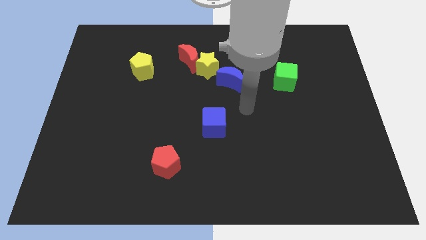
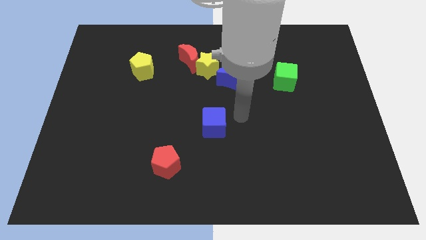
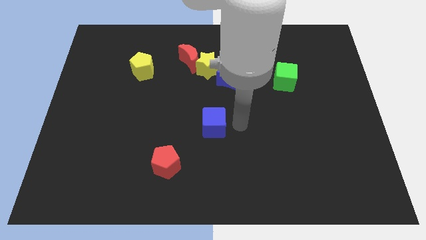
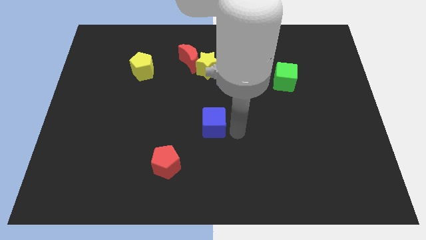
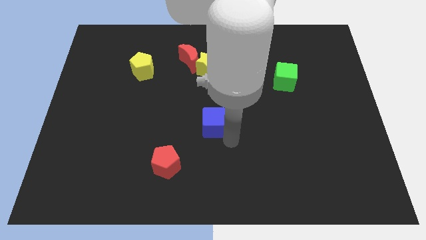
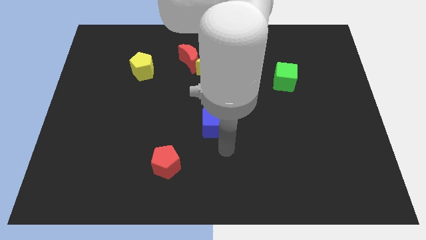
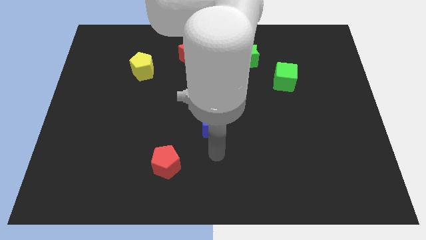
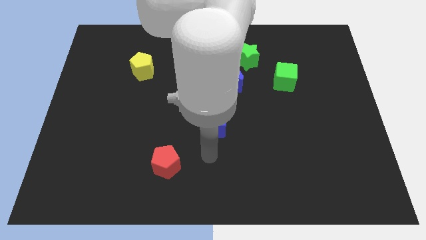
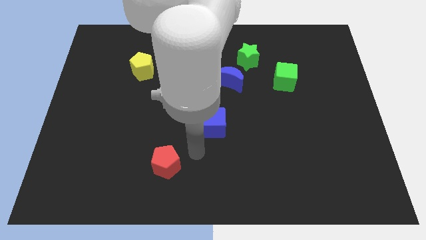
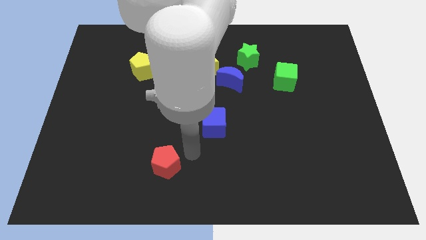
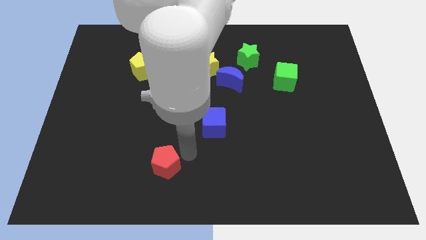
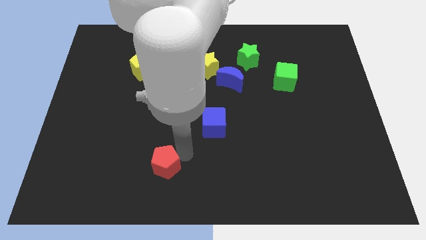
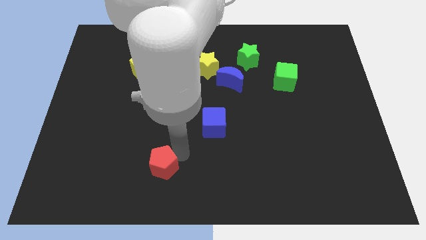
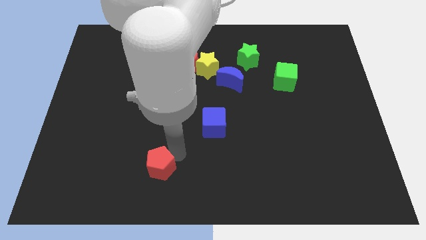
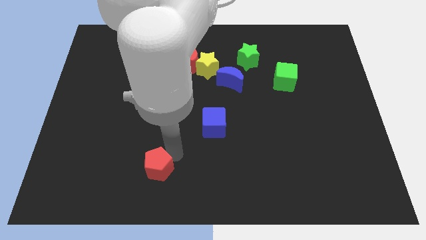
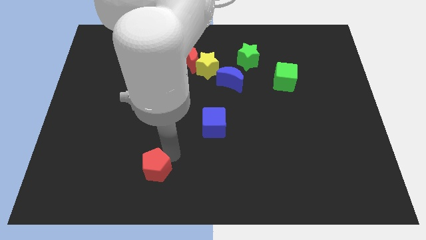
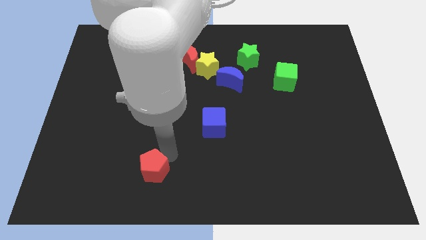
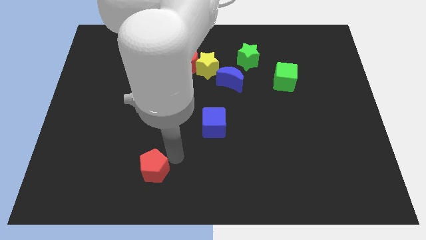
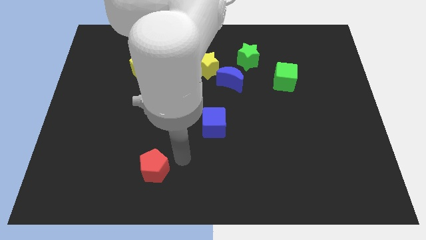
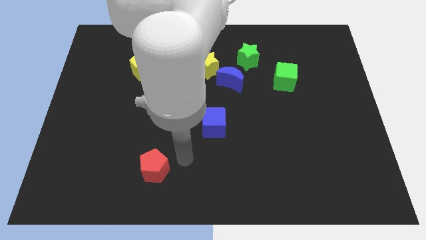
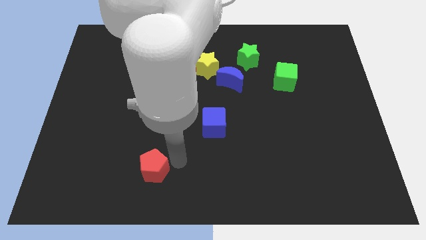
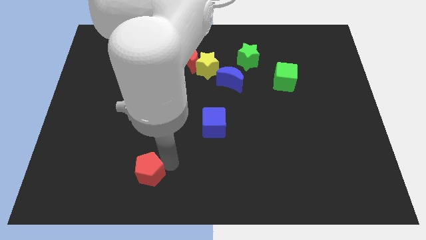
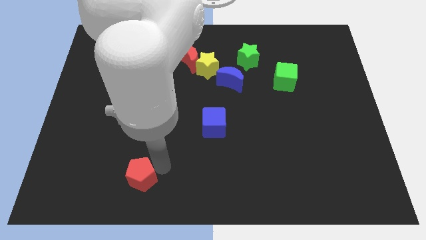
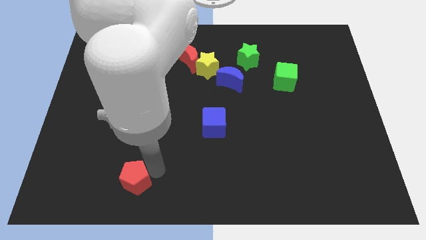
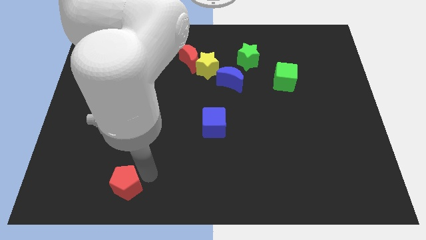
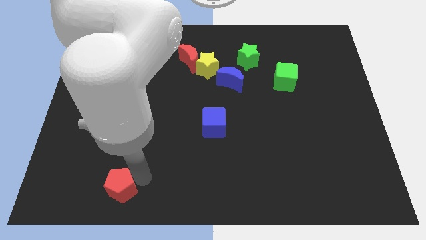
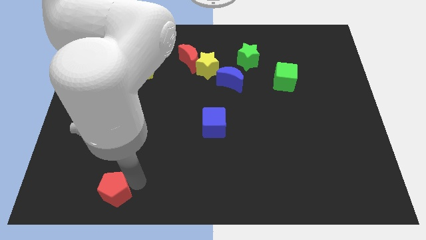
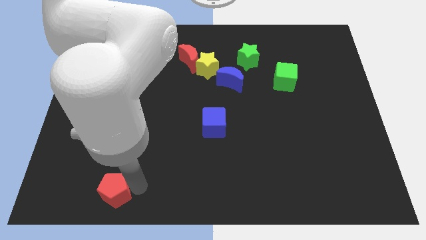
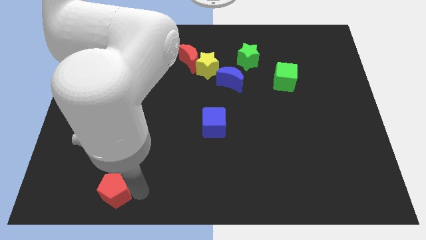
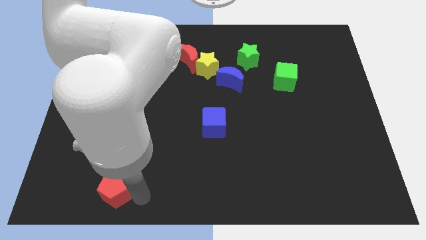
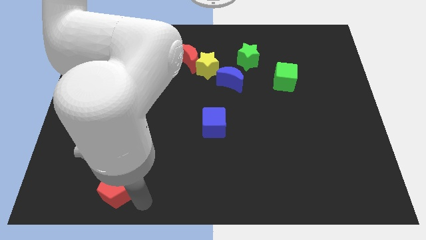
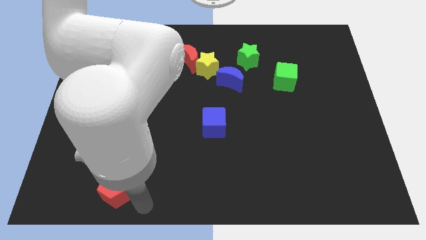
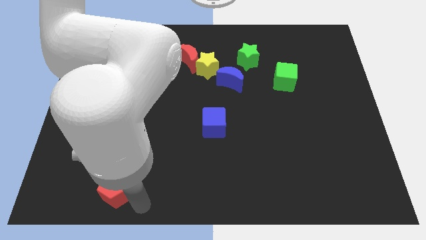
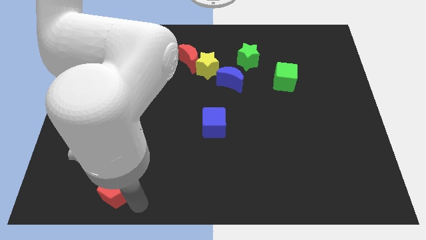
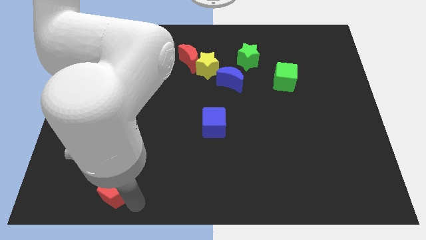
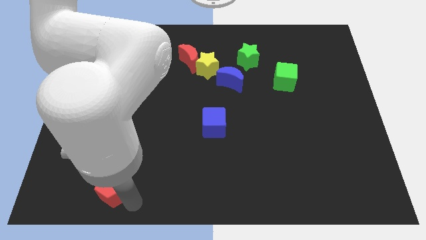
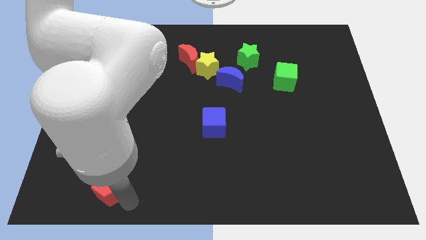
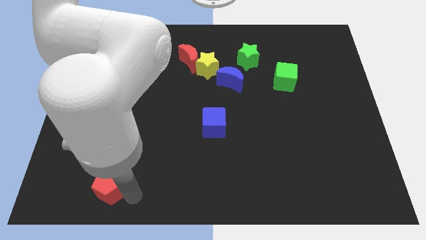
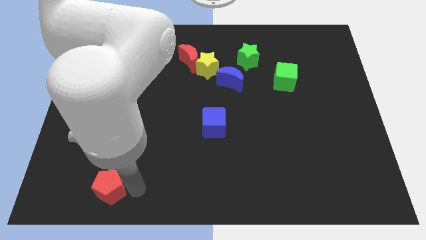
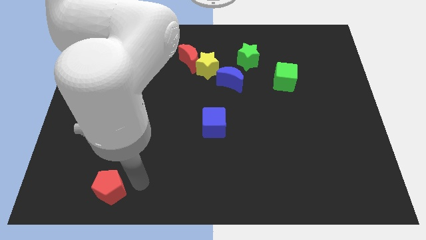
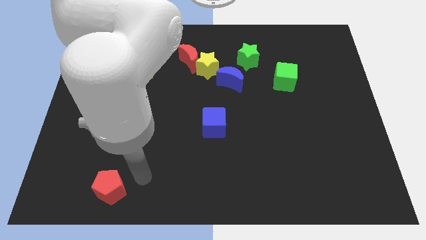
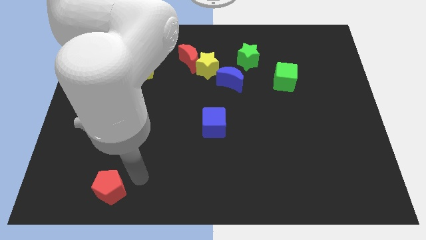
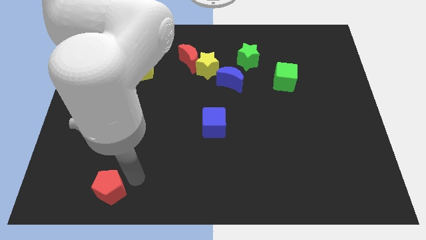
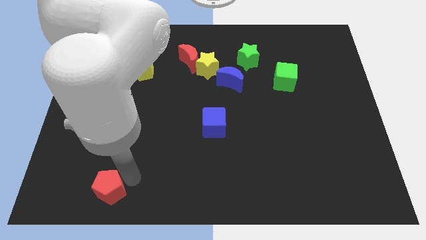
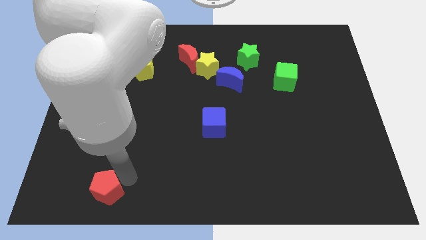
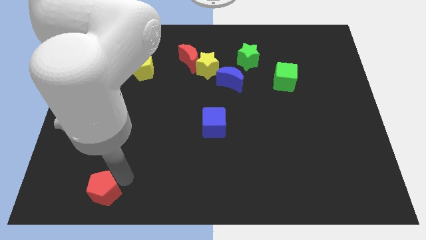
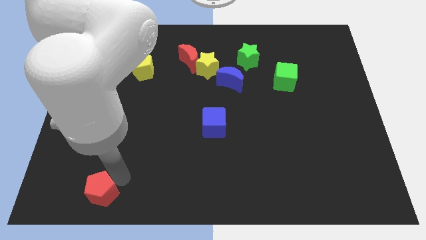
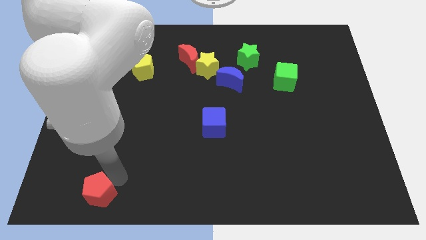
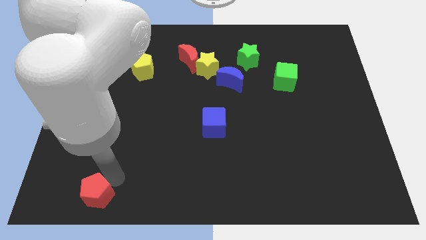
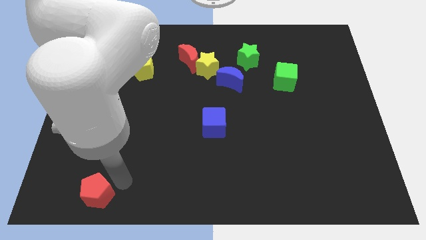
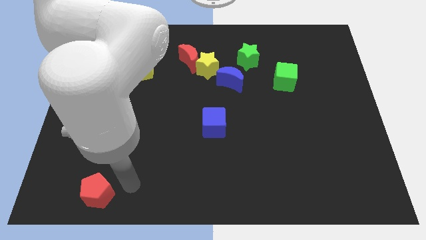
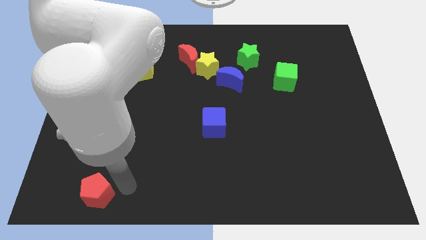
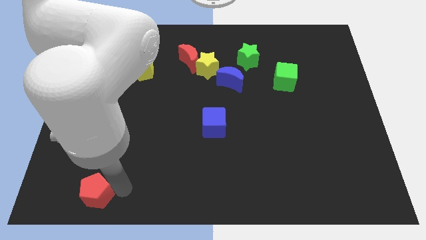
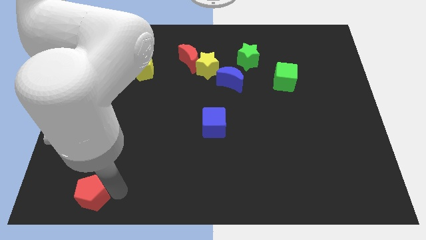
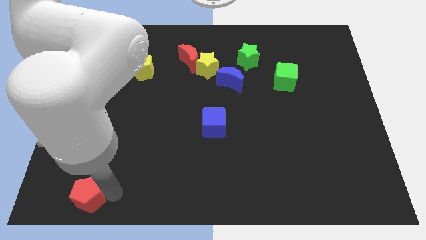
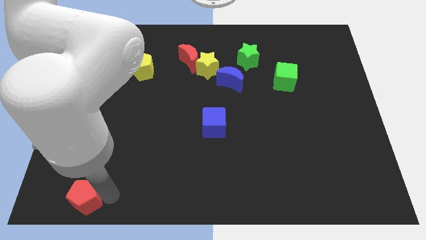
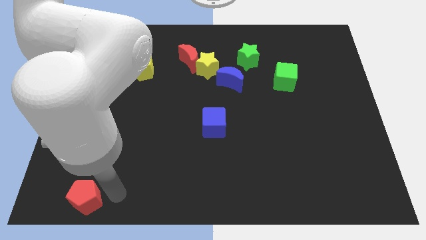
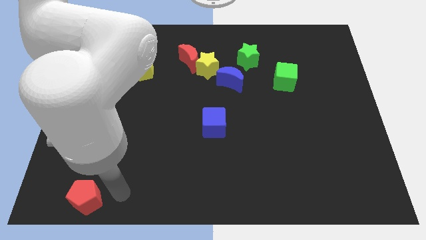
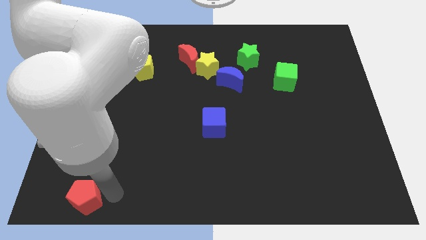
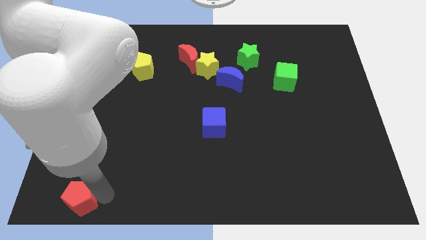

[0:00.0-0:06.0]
slide the red pentagon to the bottom left

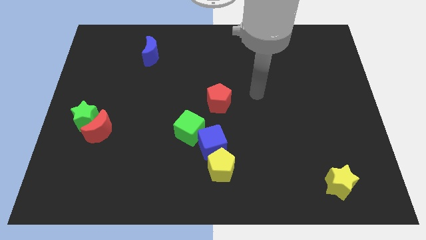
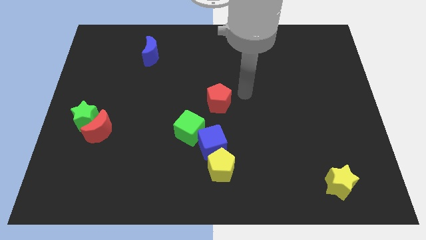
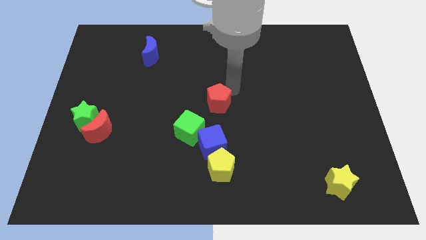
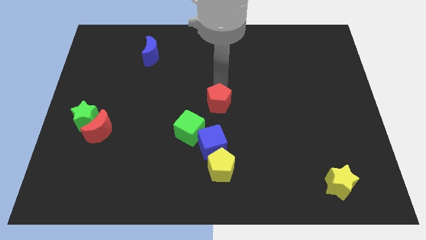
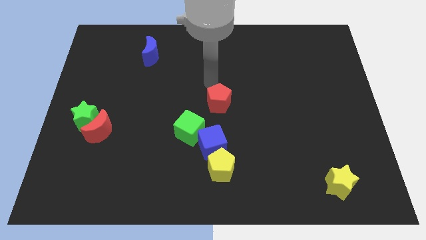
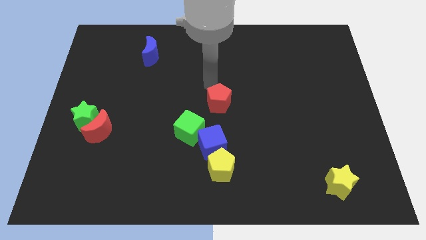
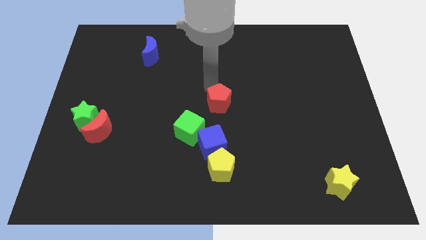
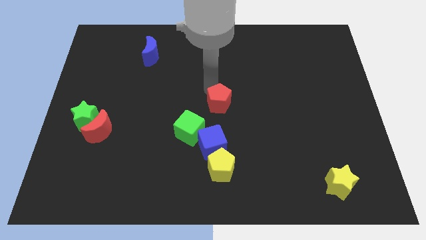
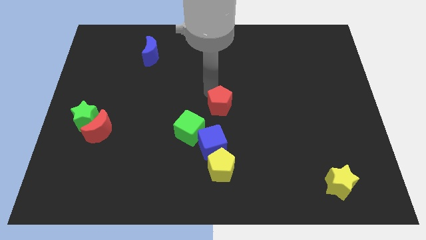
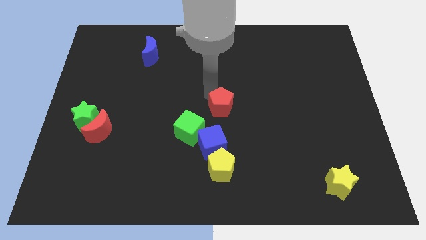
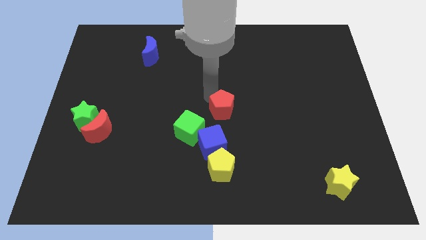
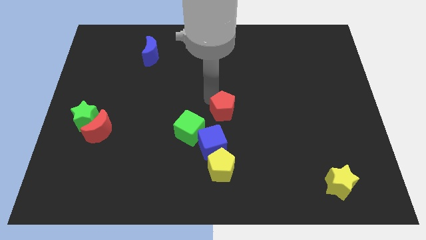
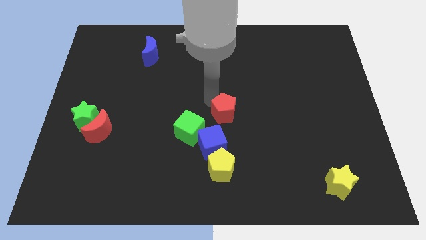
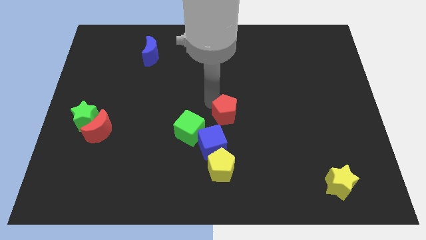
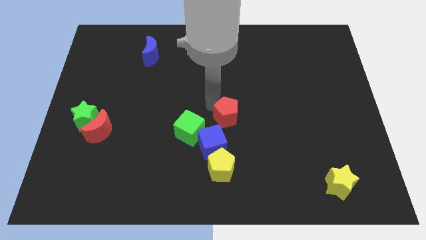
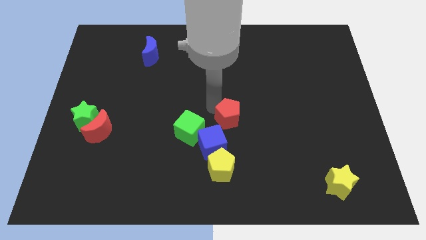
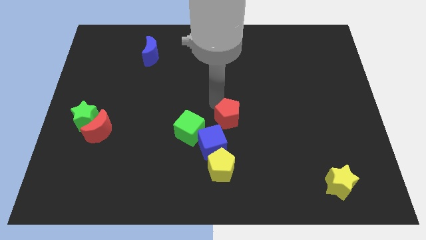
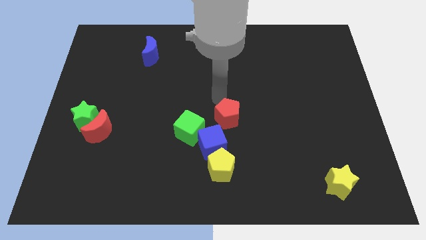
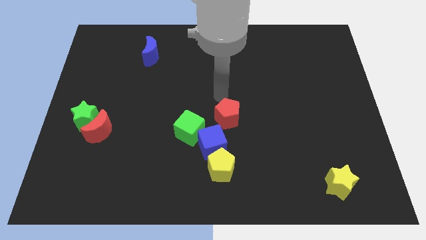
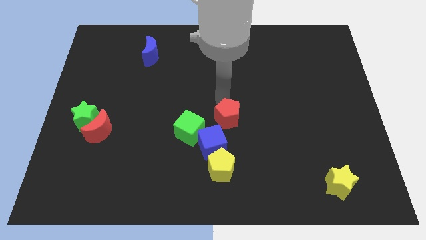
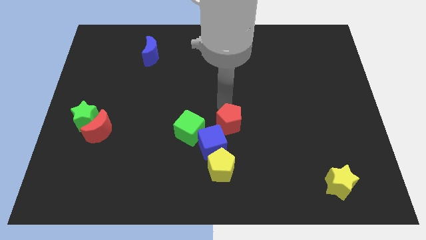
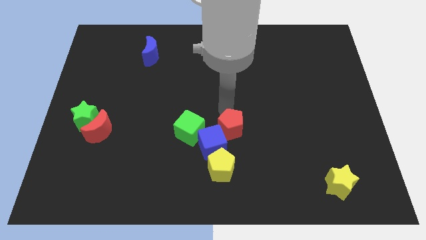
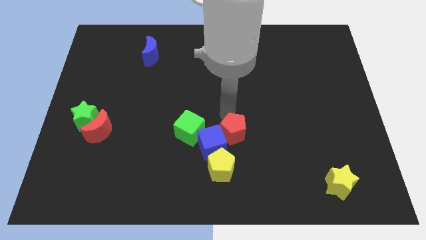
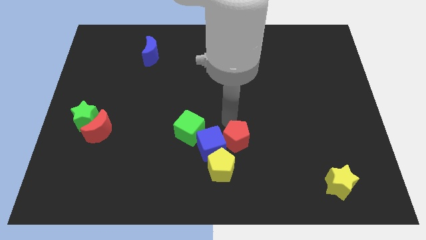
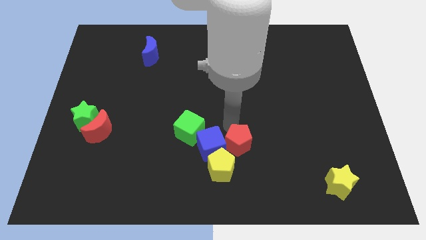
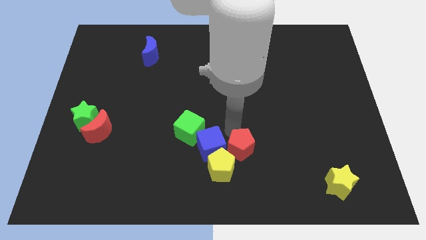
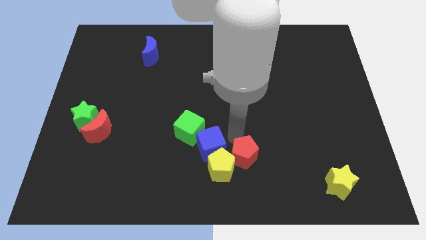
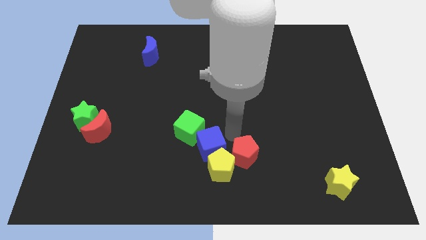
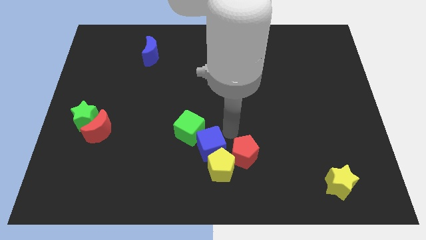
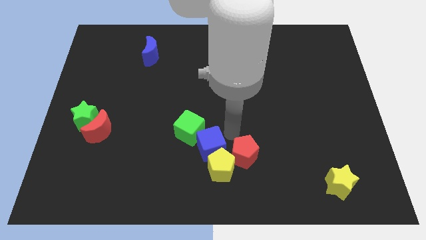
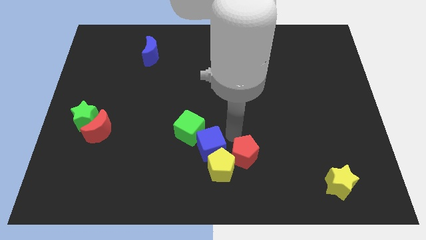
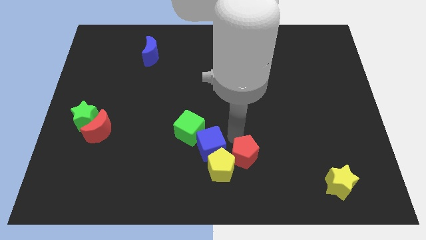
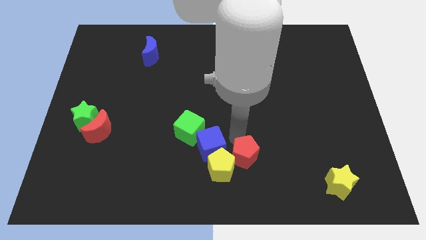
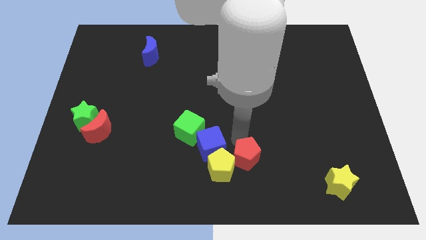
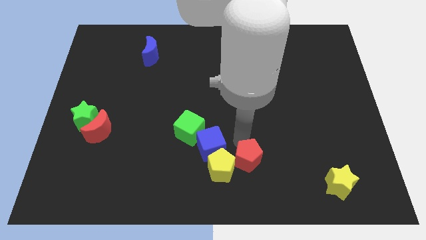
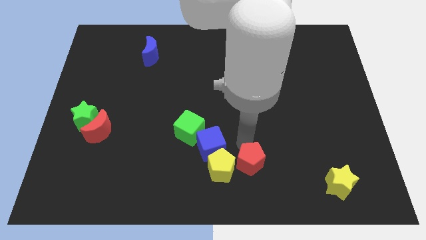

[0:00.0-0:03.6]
move the red pentagon to the bottom side
